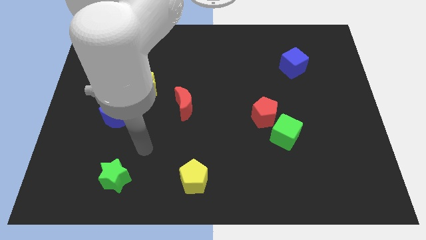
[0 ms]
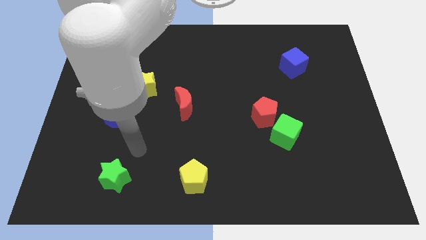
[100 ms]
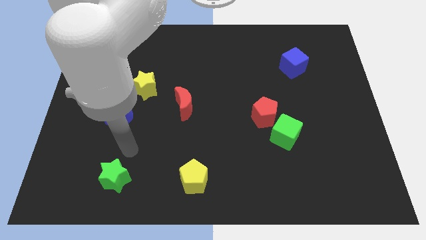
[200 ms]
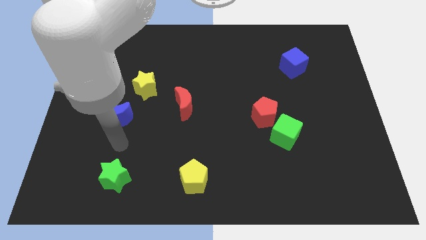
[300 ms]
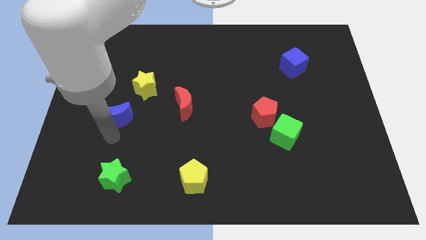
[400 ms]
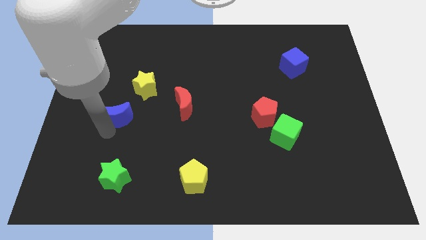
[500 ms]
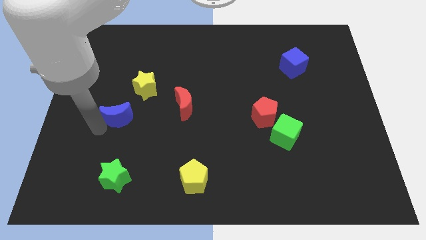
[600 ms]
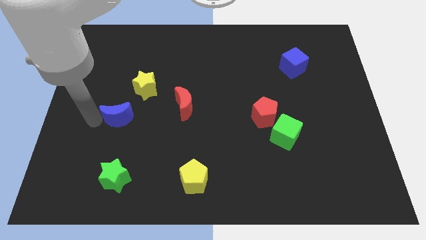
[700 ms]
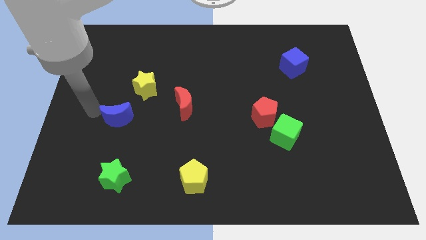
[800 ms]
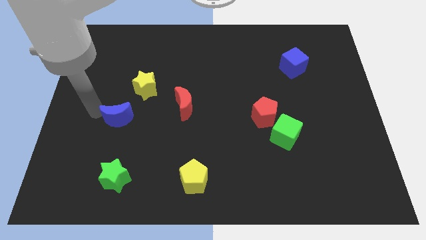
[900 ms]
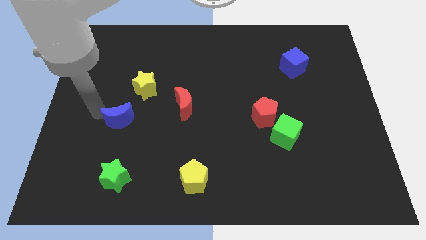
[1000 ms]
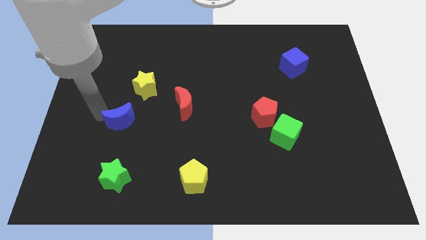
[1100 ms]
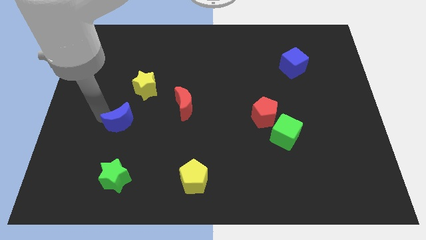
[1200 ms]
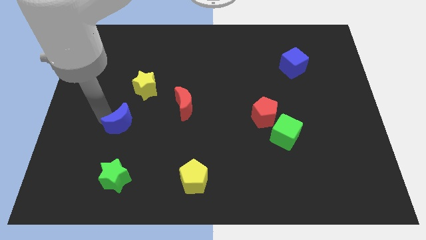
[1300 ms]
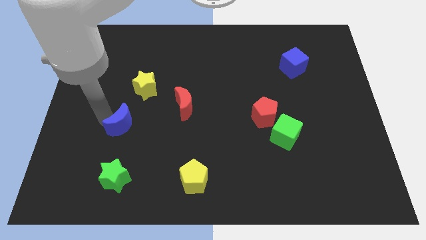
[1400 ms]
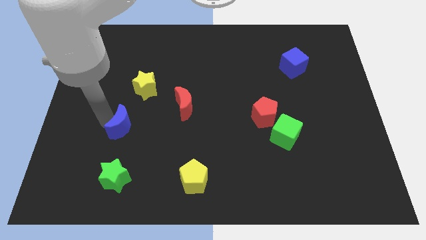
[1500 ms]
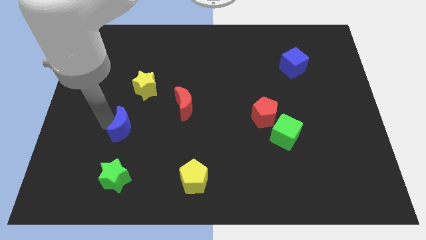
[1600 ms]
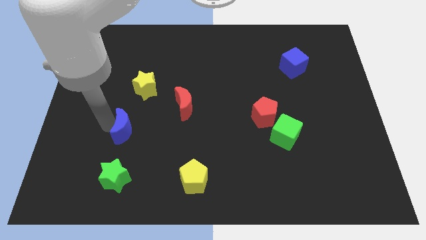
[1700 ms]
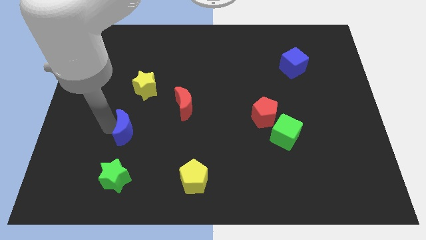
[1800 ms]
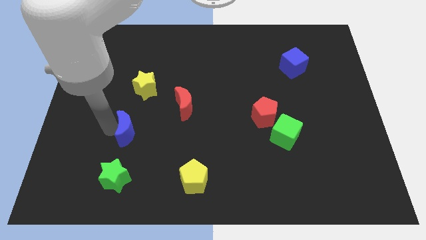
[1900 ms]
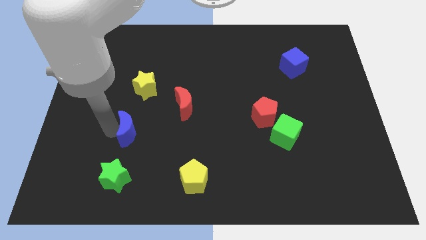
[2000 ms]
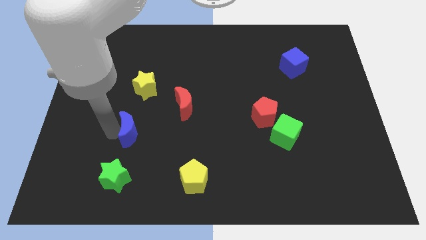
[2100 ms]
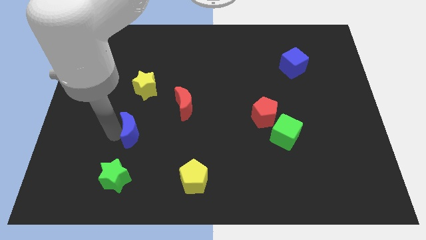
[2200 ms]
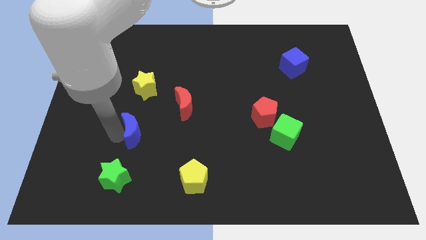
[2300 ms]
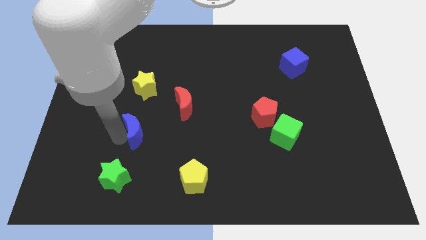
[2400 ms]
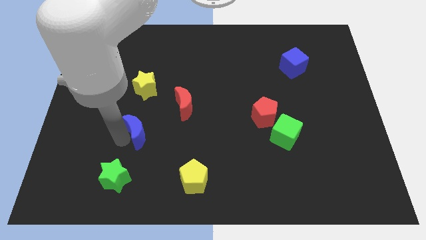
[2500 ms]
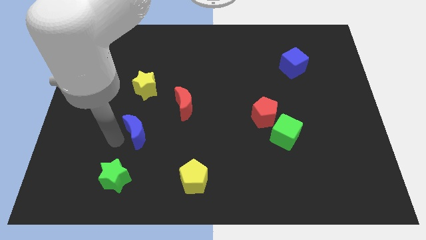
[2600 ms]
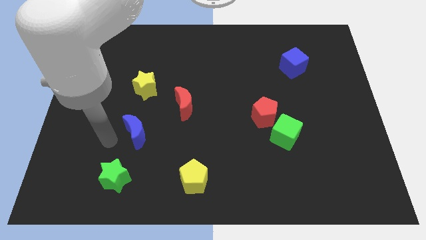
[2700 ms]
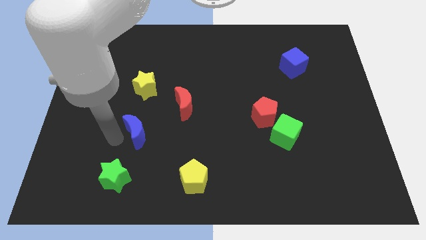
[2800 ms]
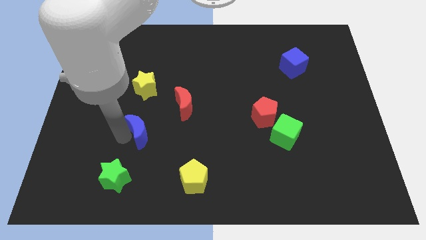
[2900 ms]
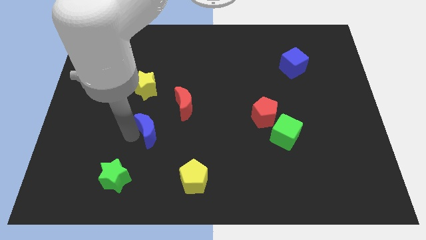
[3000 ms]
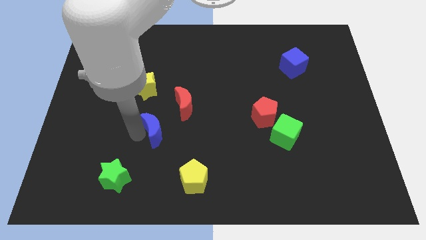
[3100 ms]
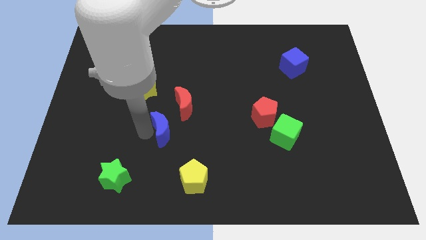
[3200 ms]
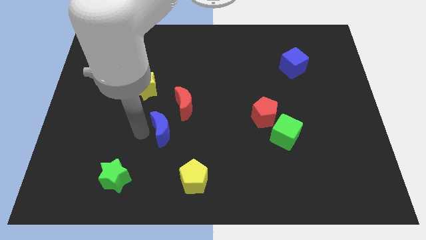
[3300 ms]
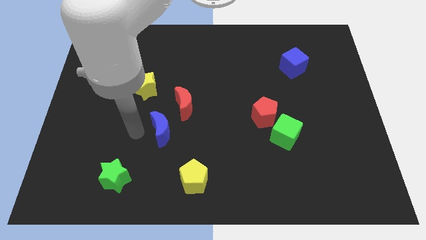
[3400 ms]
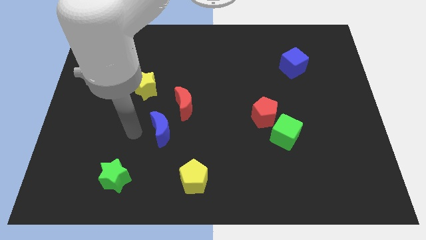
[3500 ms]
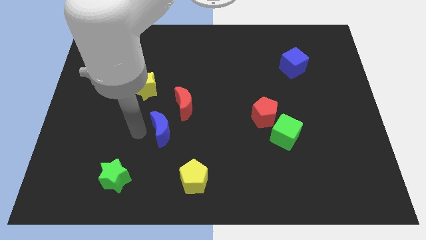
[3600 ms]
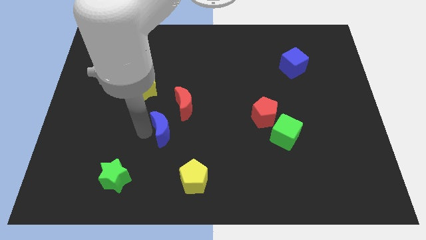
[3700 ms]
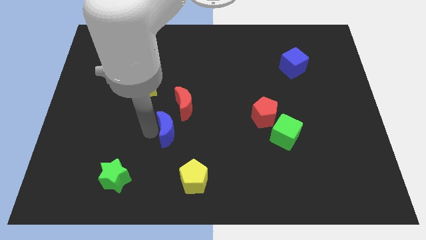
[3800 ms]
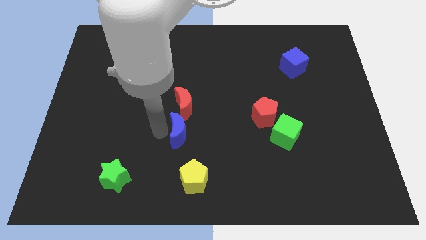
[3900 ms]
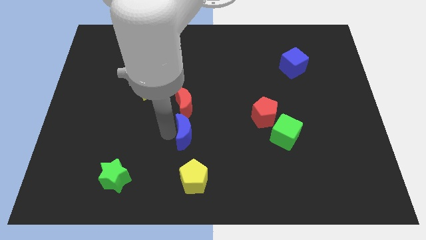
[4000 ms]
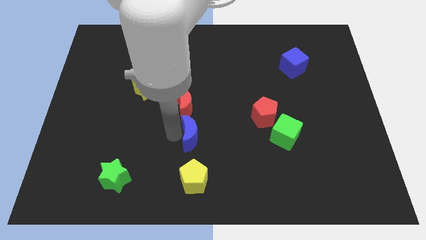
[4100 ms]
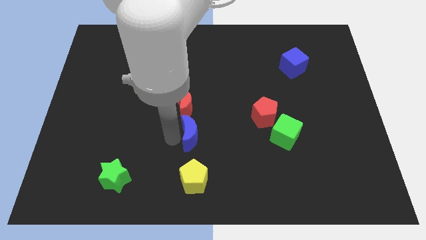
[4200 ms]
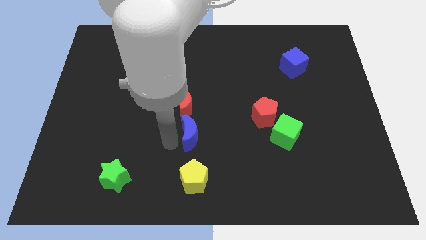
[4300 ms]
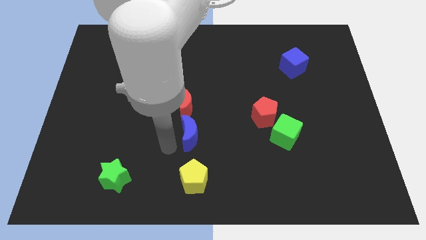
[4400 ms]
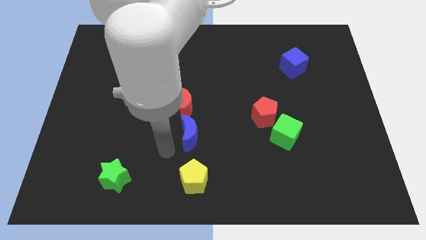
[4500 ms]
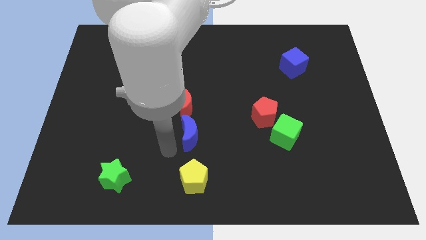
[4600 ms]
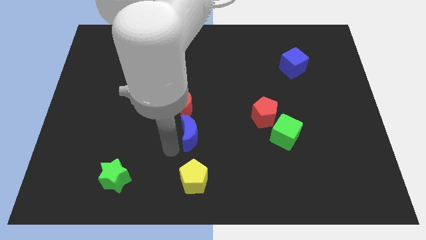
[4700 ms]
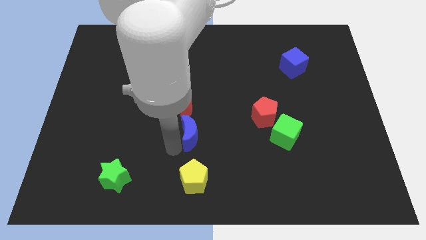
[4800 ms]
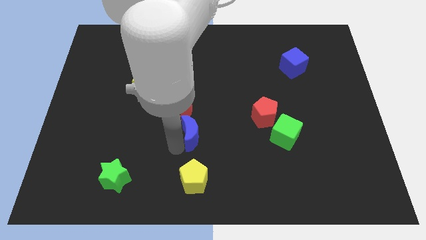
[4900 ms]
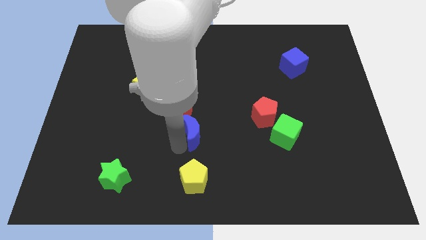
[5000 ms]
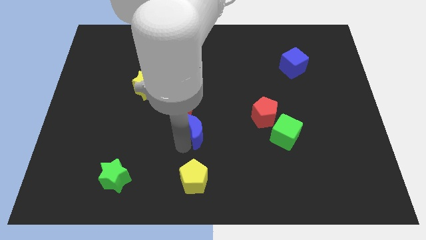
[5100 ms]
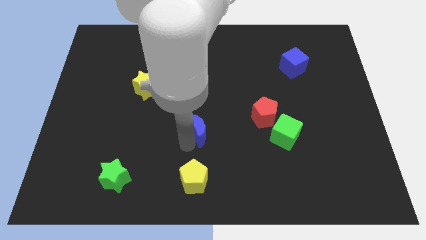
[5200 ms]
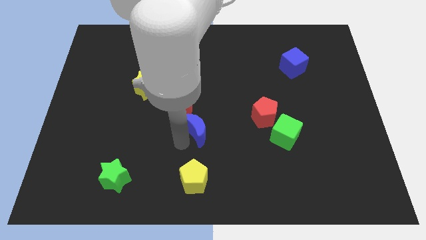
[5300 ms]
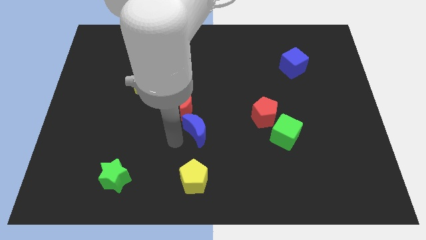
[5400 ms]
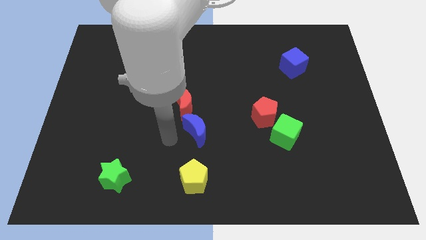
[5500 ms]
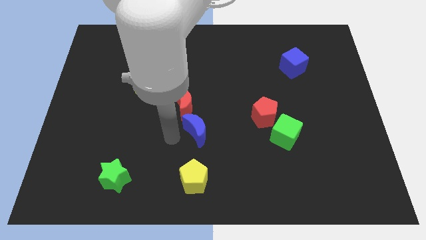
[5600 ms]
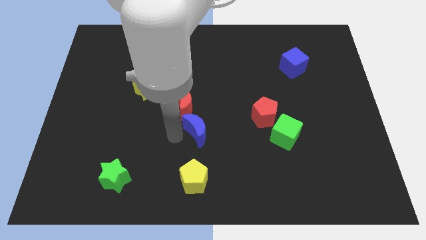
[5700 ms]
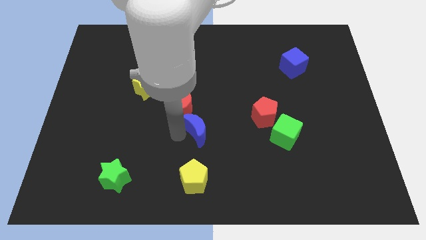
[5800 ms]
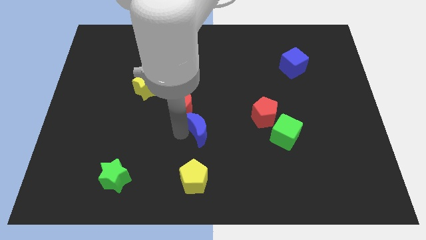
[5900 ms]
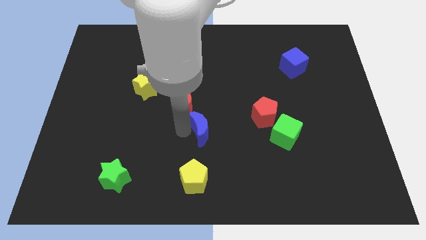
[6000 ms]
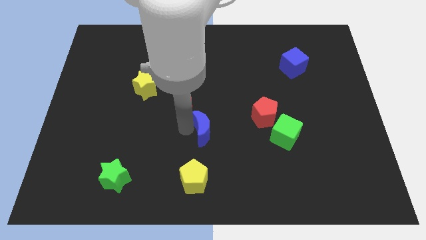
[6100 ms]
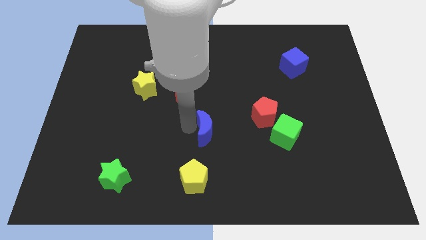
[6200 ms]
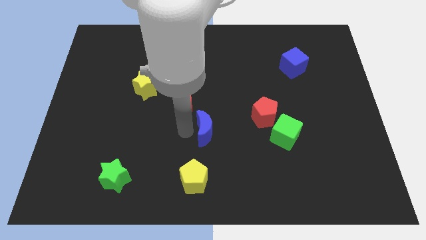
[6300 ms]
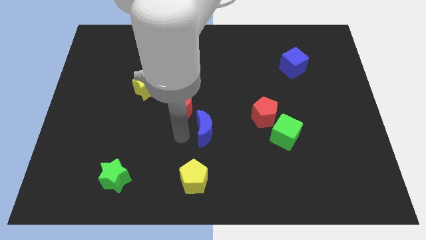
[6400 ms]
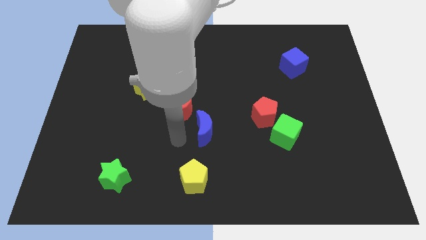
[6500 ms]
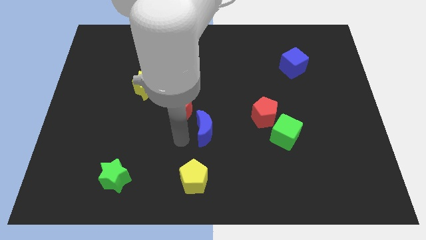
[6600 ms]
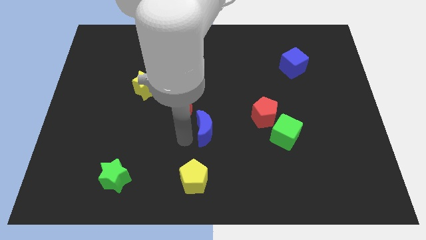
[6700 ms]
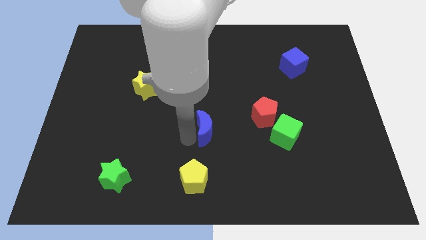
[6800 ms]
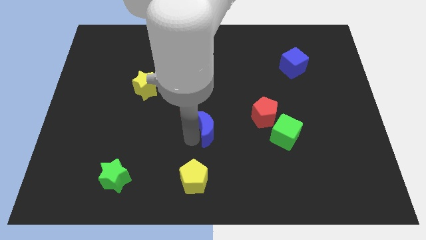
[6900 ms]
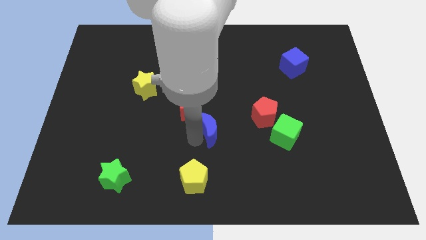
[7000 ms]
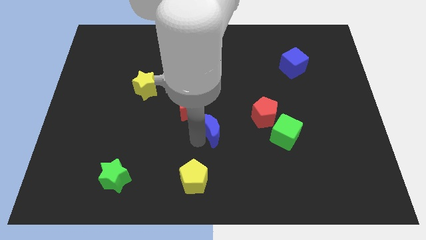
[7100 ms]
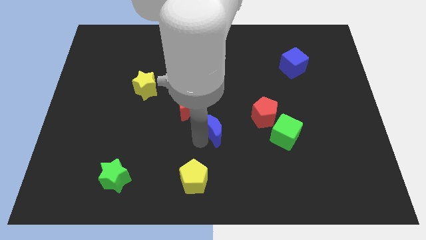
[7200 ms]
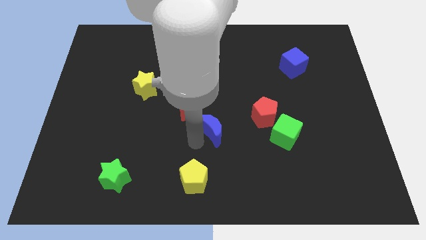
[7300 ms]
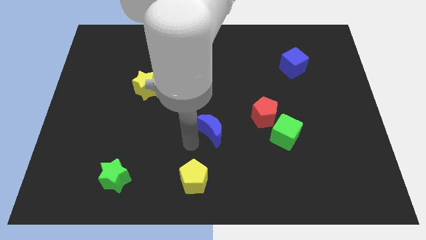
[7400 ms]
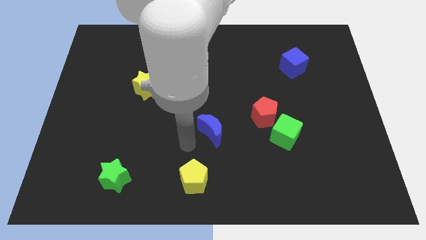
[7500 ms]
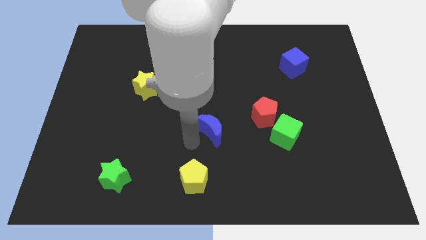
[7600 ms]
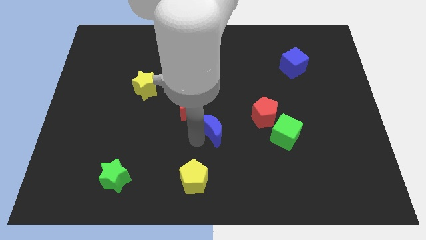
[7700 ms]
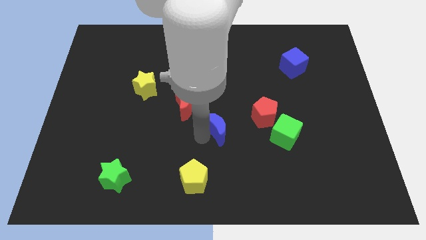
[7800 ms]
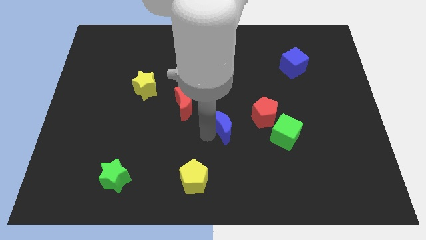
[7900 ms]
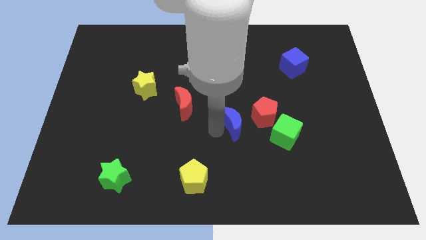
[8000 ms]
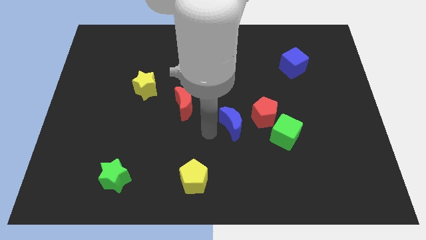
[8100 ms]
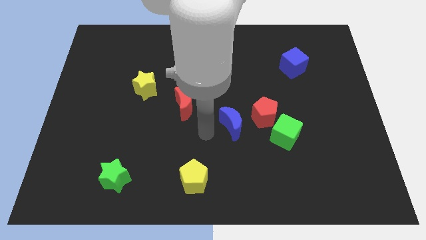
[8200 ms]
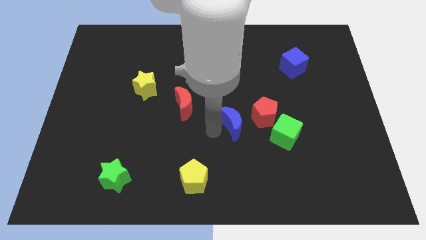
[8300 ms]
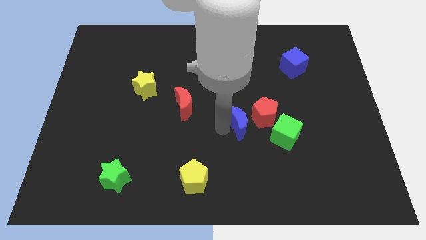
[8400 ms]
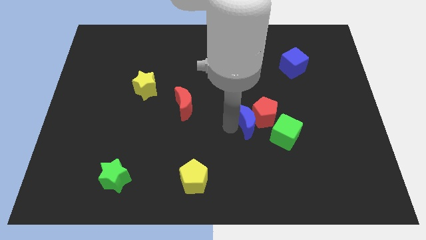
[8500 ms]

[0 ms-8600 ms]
push the blue moon to the red pentagon
